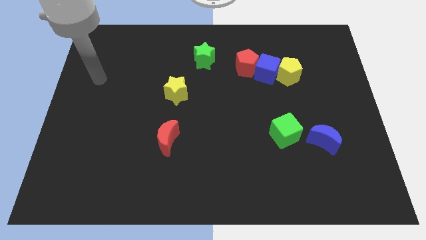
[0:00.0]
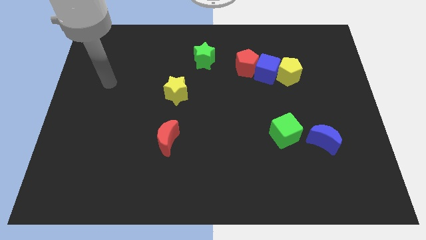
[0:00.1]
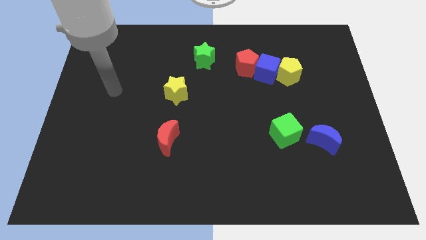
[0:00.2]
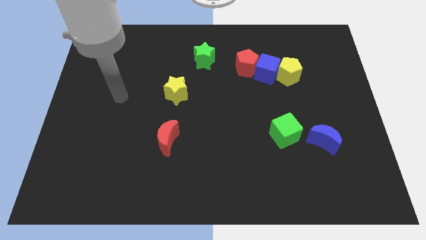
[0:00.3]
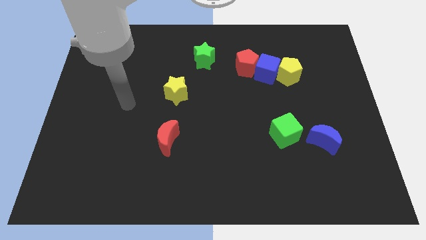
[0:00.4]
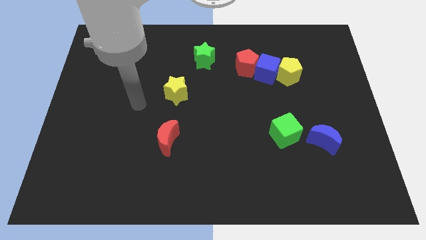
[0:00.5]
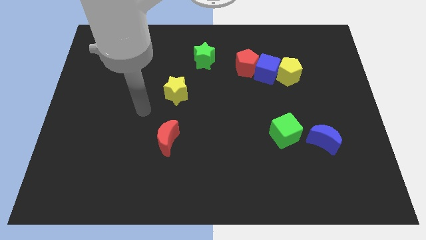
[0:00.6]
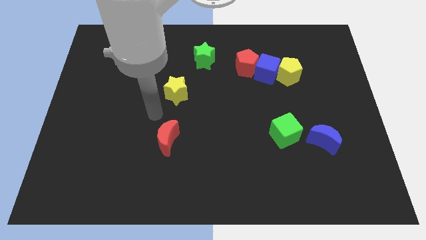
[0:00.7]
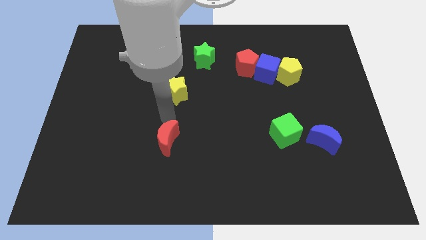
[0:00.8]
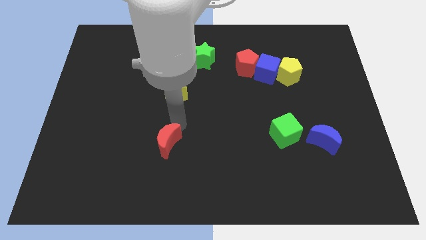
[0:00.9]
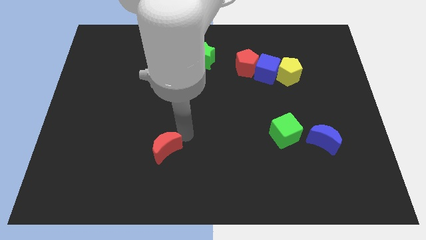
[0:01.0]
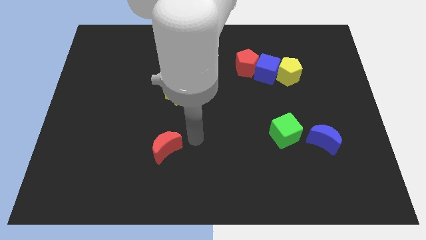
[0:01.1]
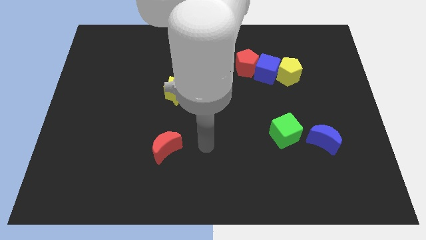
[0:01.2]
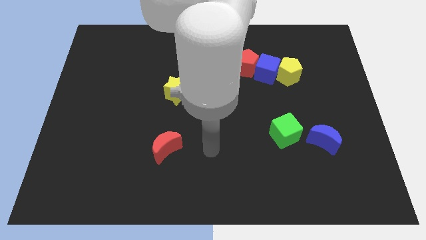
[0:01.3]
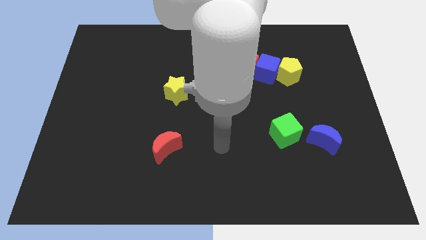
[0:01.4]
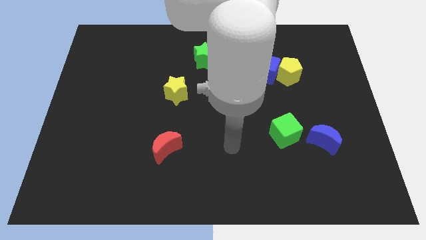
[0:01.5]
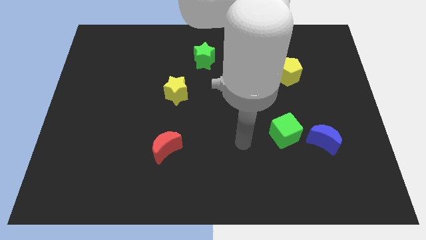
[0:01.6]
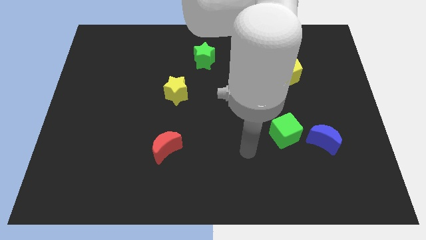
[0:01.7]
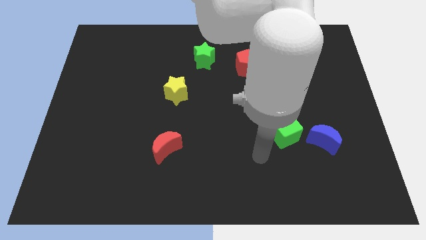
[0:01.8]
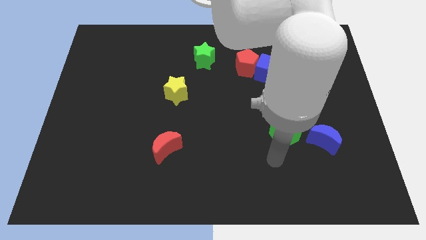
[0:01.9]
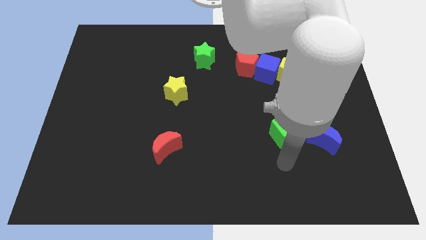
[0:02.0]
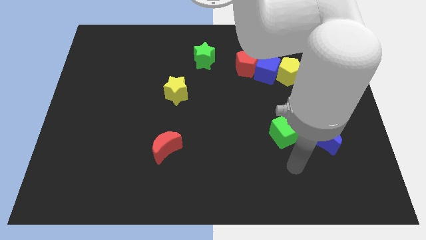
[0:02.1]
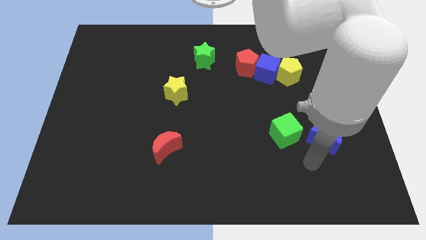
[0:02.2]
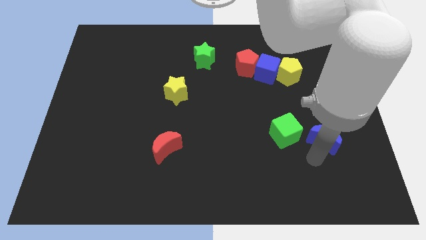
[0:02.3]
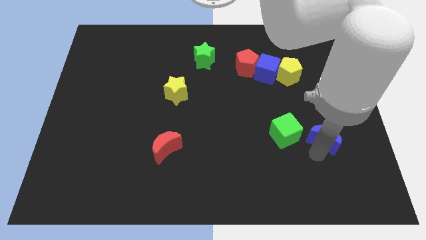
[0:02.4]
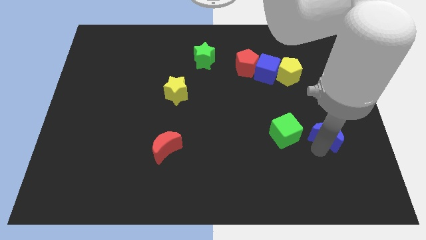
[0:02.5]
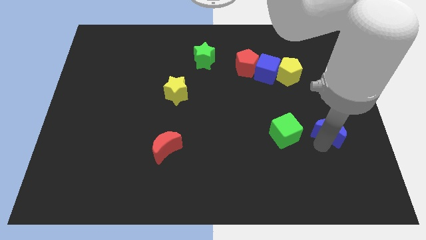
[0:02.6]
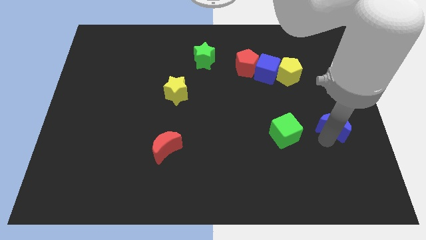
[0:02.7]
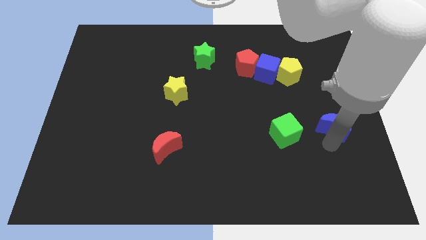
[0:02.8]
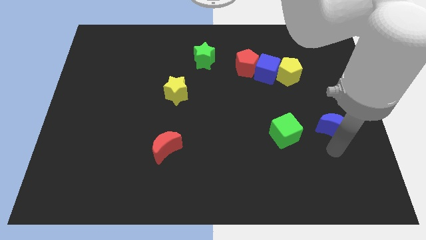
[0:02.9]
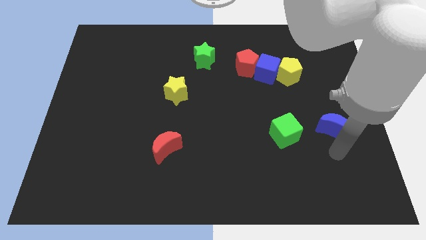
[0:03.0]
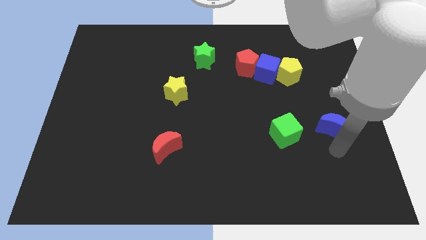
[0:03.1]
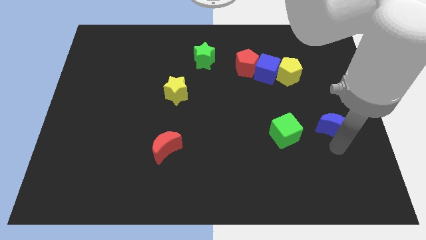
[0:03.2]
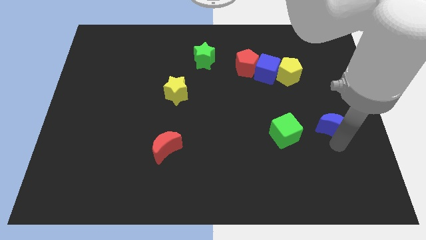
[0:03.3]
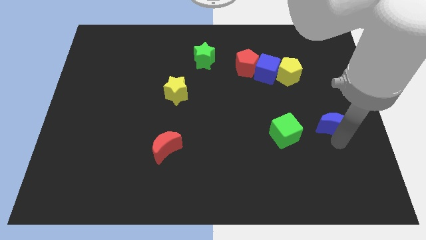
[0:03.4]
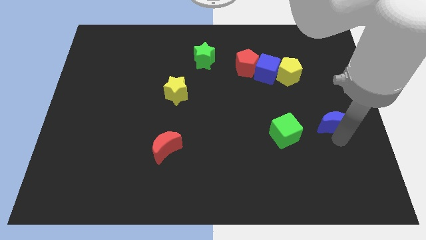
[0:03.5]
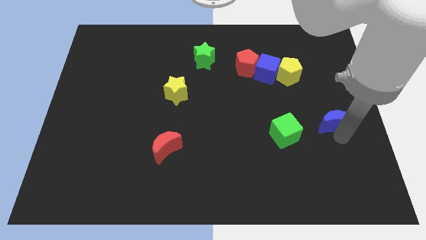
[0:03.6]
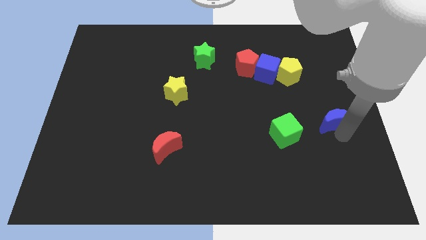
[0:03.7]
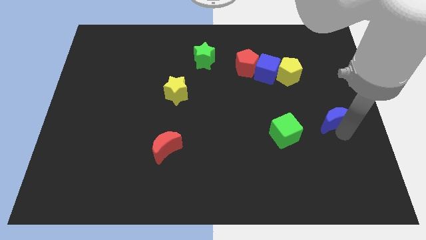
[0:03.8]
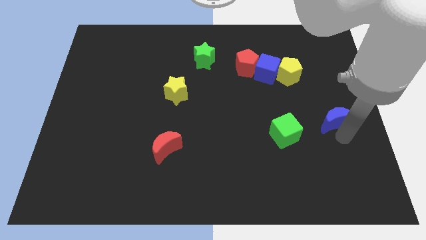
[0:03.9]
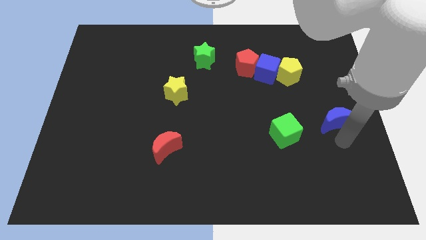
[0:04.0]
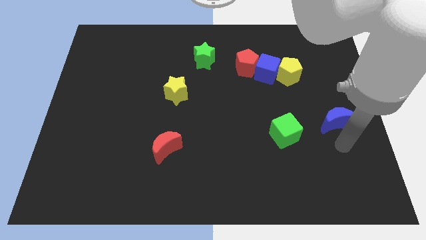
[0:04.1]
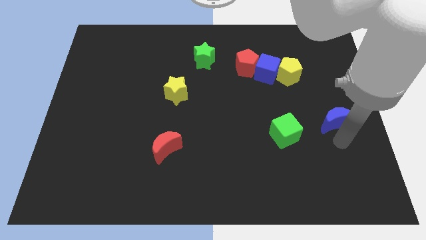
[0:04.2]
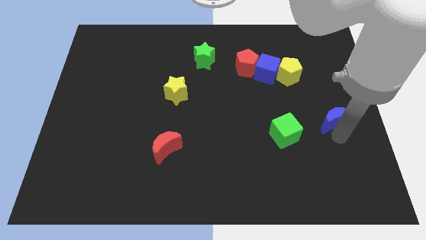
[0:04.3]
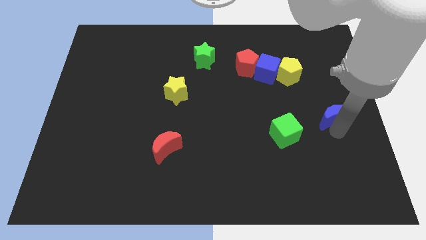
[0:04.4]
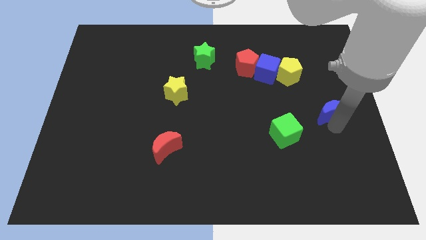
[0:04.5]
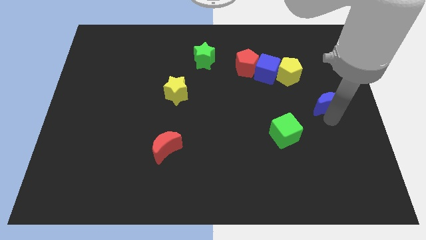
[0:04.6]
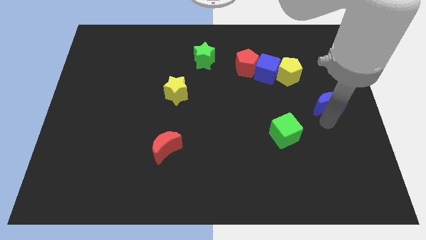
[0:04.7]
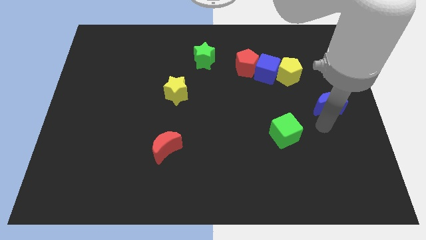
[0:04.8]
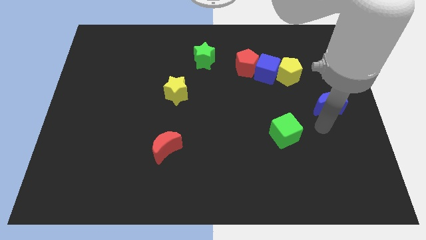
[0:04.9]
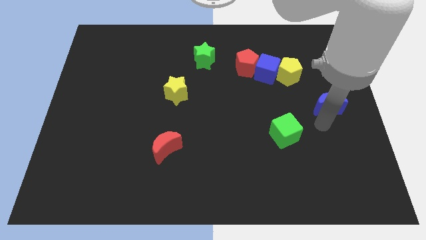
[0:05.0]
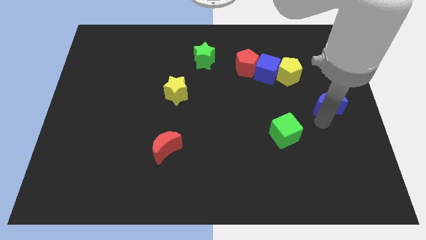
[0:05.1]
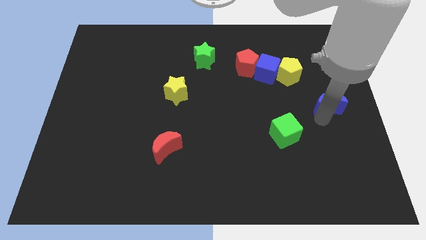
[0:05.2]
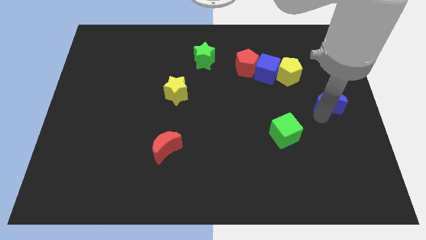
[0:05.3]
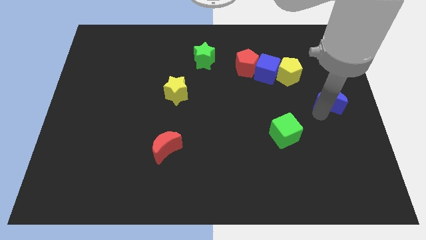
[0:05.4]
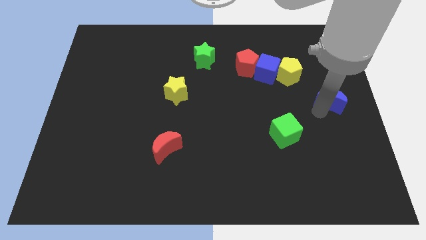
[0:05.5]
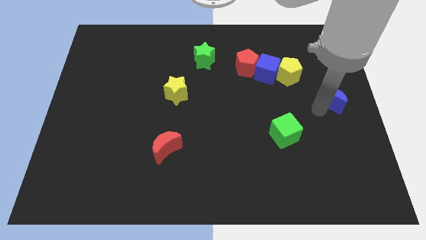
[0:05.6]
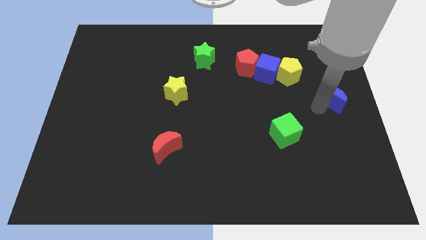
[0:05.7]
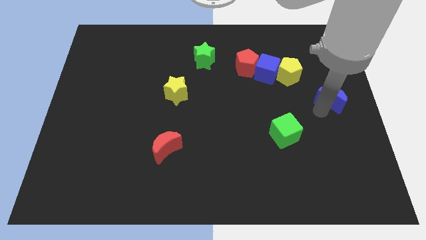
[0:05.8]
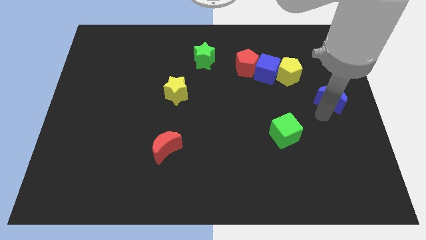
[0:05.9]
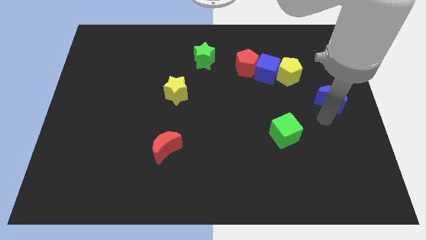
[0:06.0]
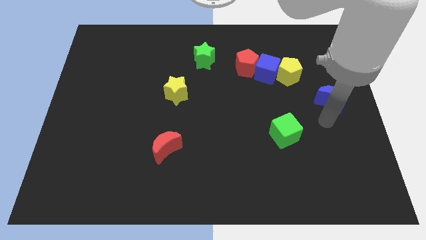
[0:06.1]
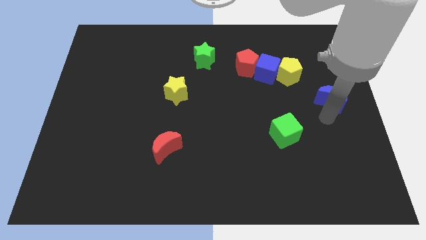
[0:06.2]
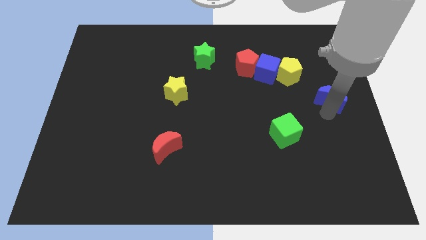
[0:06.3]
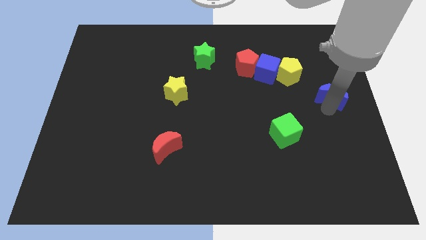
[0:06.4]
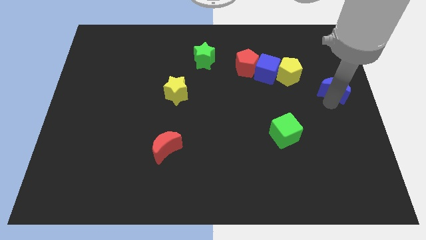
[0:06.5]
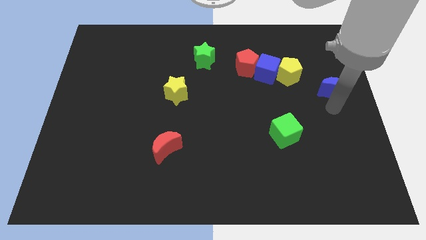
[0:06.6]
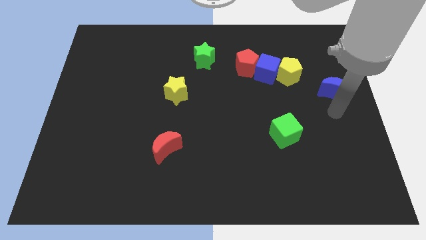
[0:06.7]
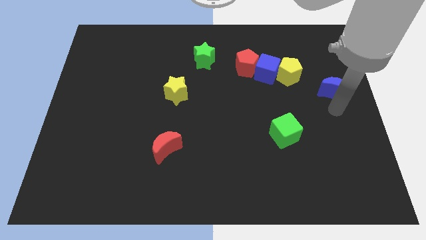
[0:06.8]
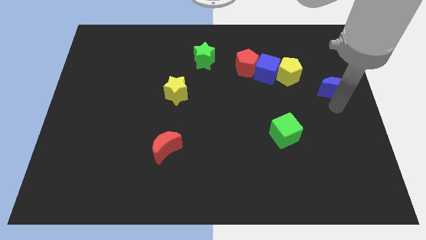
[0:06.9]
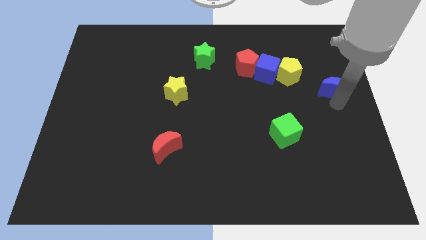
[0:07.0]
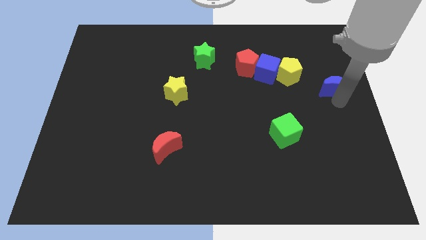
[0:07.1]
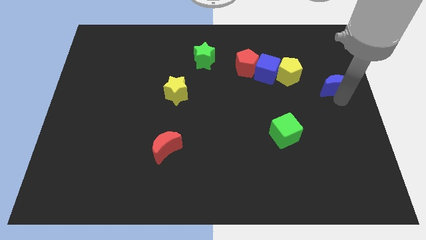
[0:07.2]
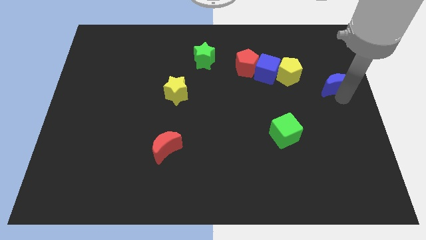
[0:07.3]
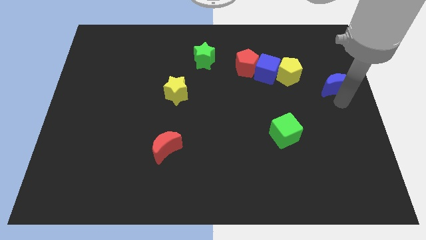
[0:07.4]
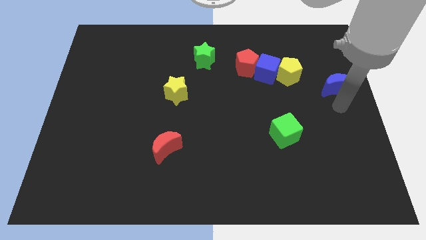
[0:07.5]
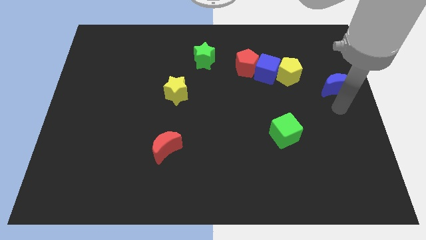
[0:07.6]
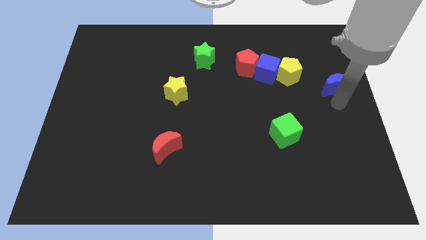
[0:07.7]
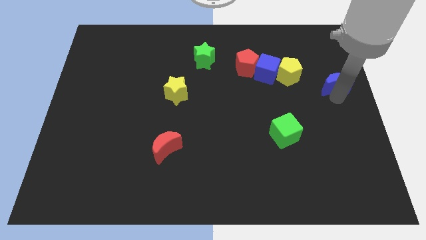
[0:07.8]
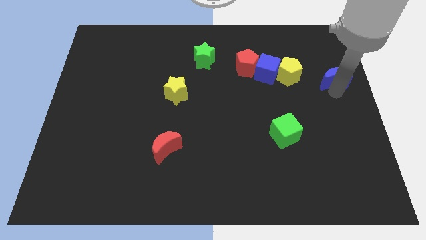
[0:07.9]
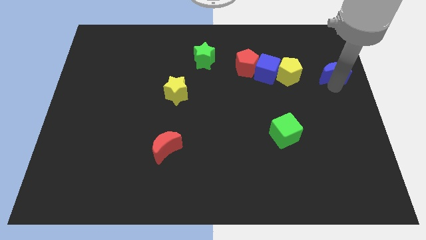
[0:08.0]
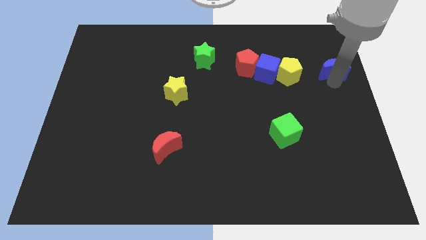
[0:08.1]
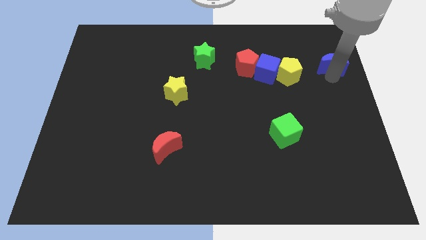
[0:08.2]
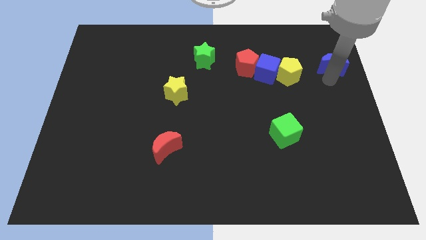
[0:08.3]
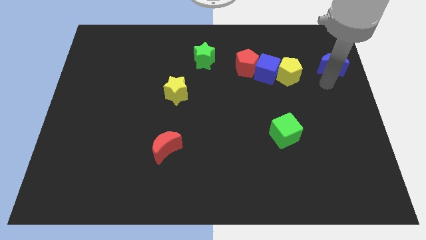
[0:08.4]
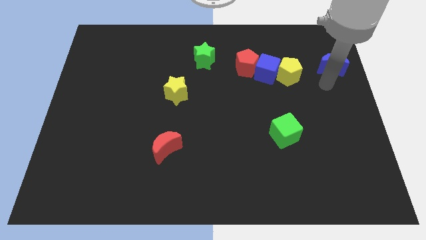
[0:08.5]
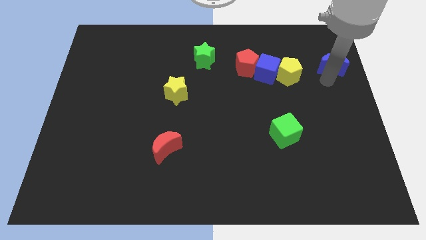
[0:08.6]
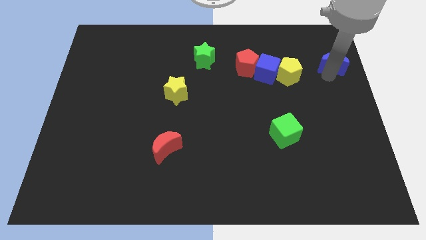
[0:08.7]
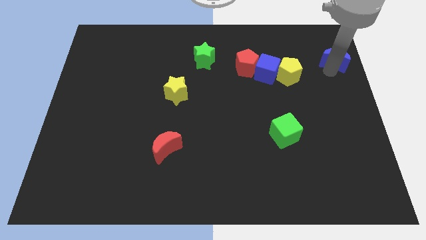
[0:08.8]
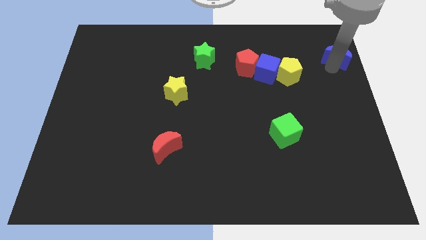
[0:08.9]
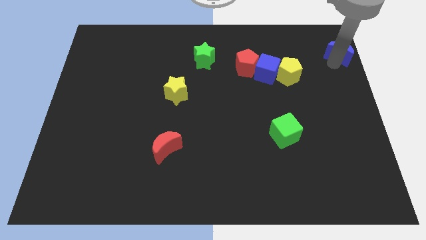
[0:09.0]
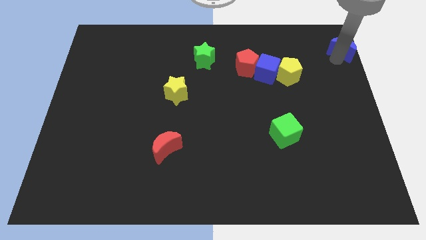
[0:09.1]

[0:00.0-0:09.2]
put the blue moon to the top right corner
